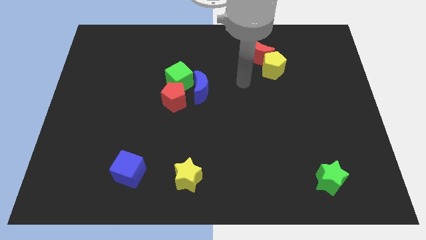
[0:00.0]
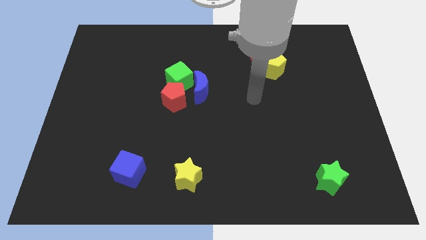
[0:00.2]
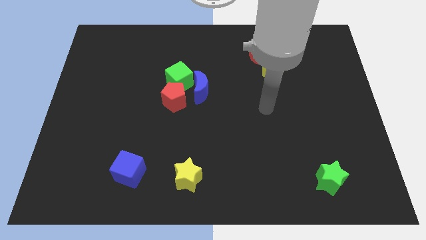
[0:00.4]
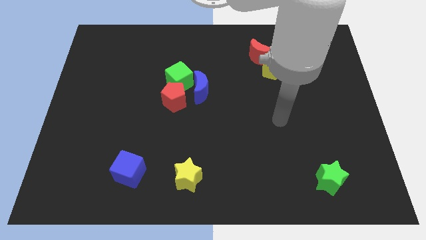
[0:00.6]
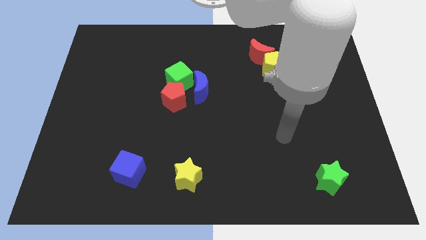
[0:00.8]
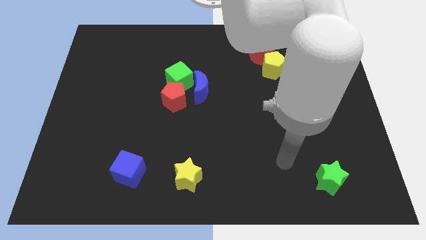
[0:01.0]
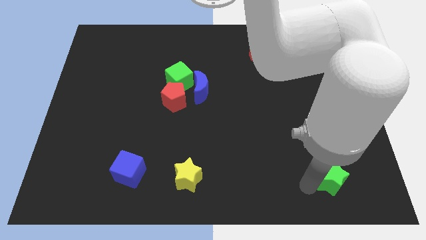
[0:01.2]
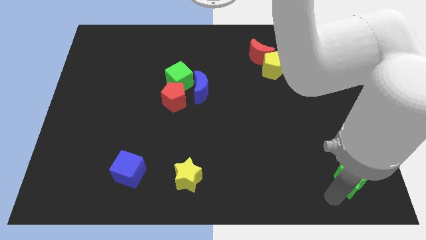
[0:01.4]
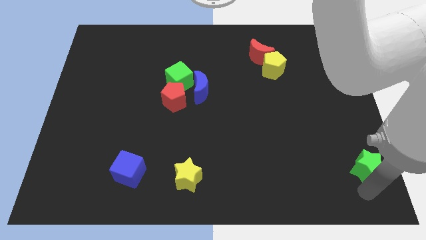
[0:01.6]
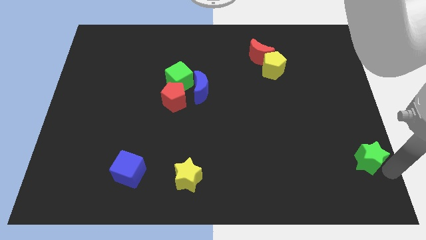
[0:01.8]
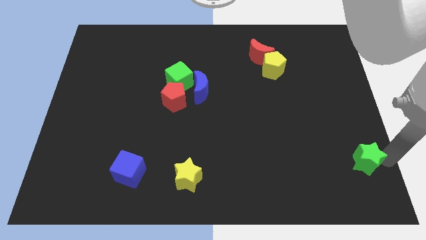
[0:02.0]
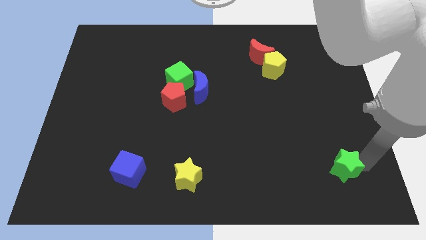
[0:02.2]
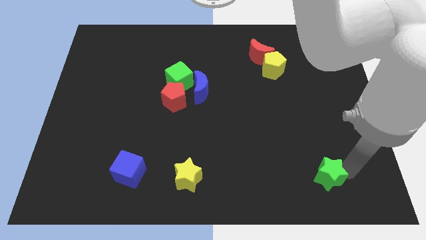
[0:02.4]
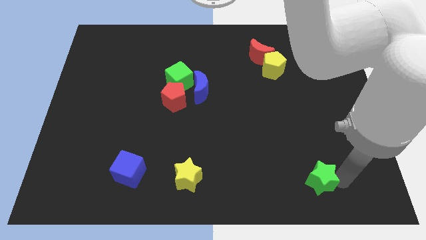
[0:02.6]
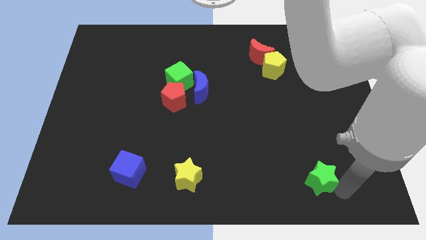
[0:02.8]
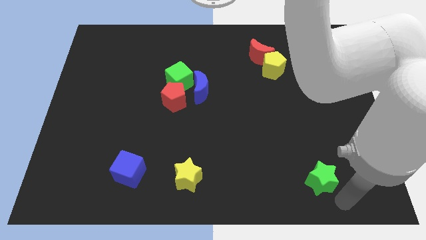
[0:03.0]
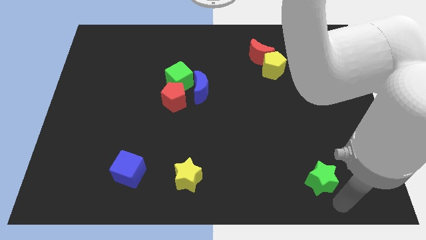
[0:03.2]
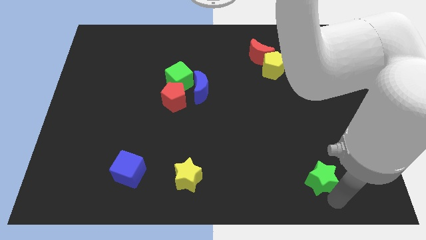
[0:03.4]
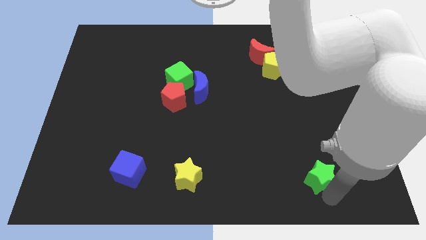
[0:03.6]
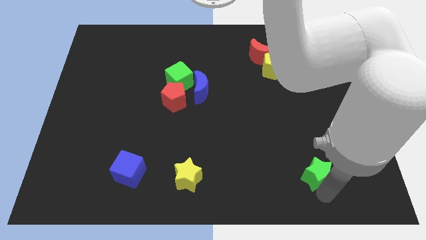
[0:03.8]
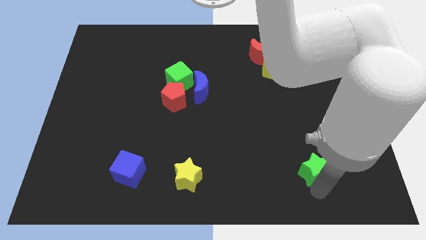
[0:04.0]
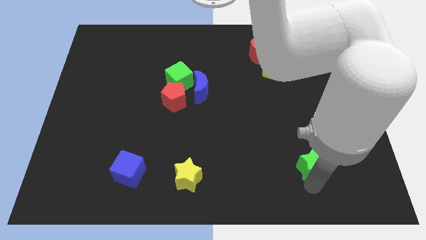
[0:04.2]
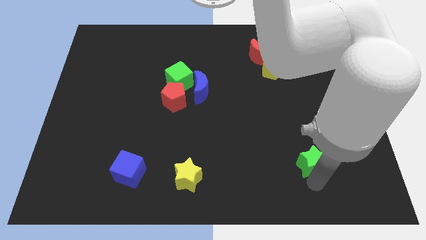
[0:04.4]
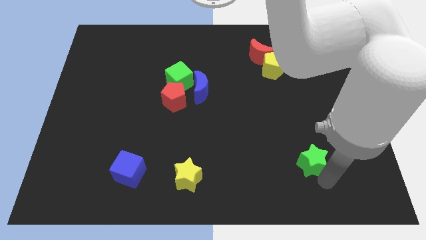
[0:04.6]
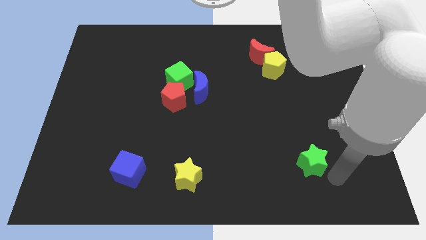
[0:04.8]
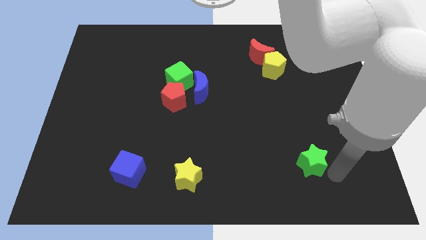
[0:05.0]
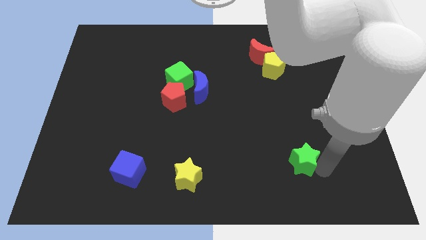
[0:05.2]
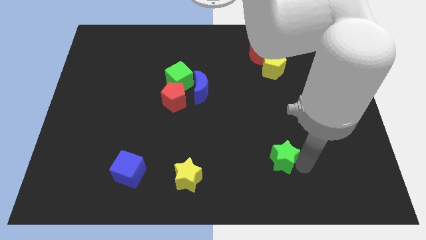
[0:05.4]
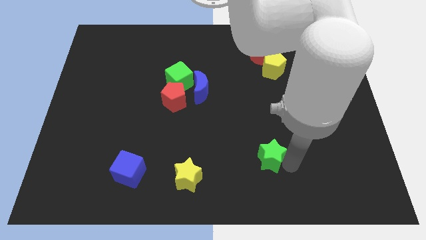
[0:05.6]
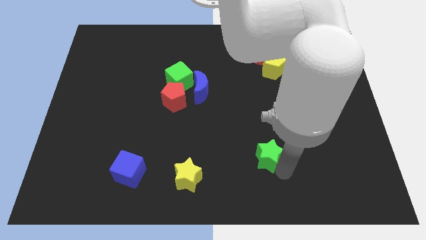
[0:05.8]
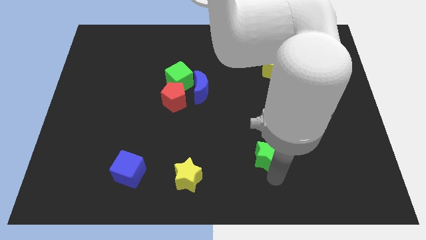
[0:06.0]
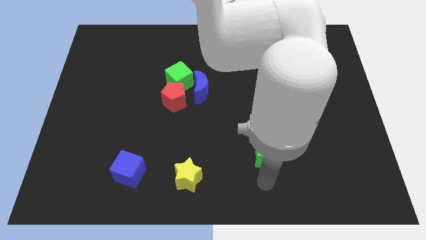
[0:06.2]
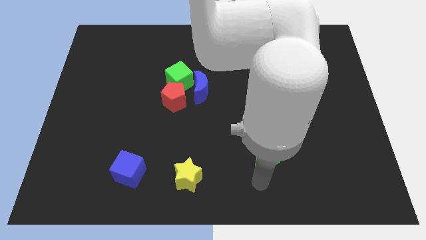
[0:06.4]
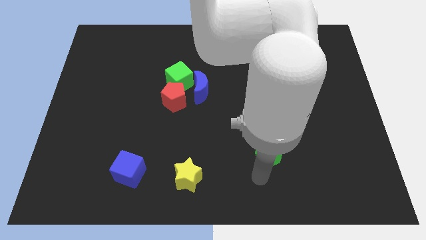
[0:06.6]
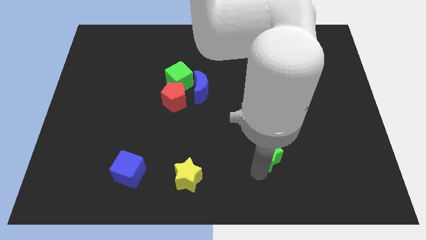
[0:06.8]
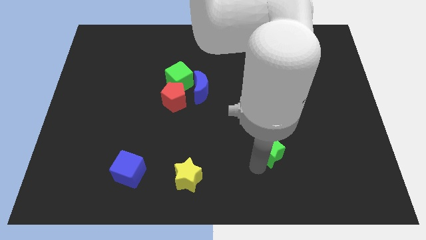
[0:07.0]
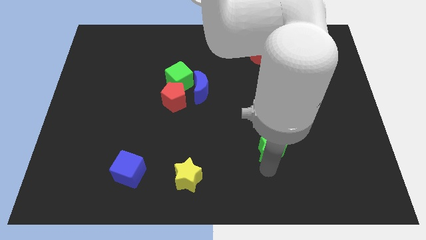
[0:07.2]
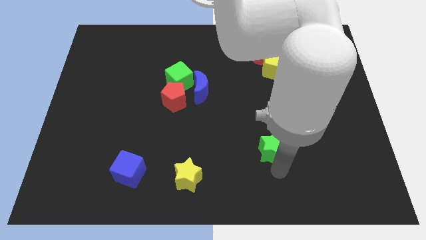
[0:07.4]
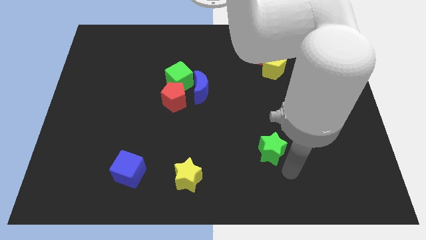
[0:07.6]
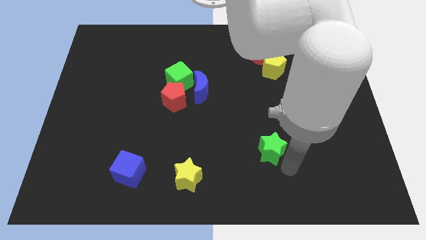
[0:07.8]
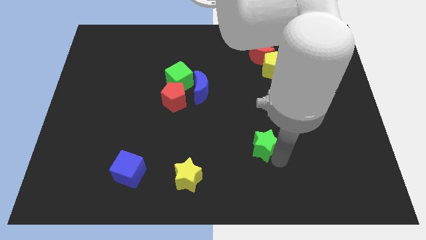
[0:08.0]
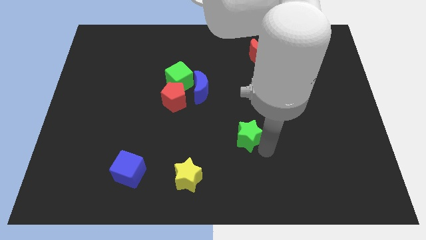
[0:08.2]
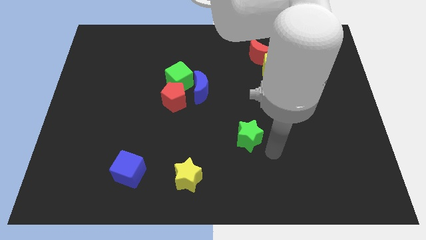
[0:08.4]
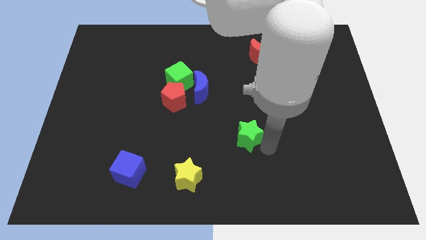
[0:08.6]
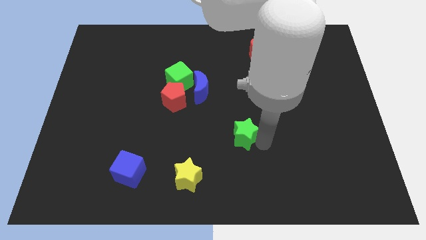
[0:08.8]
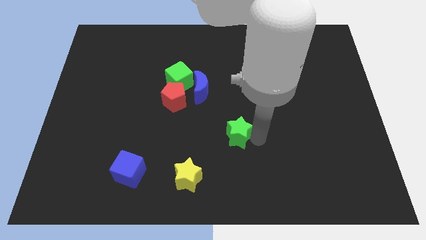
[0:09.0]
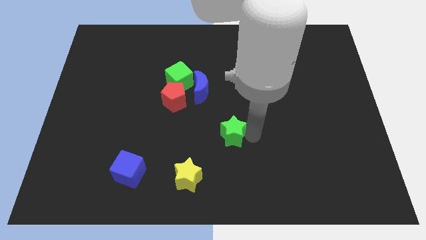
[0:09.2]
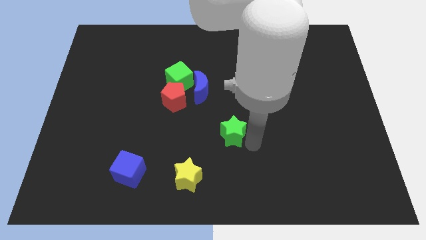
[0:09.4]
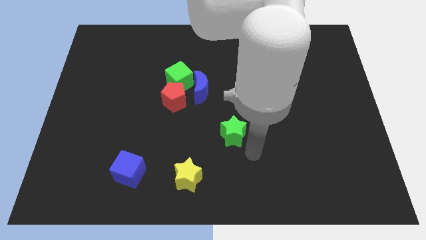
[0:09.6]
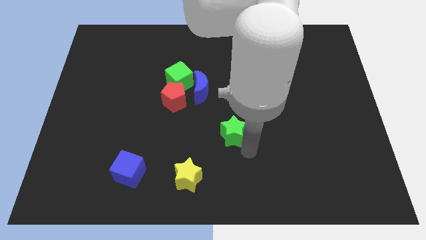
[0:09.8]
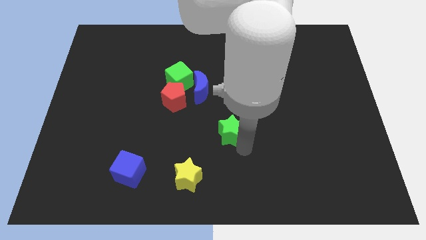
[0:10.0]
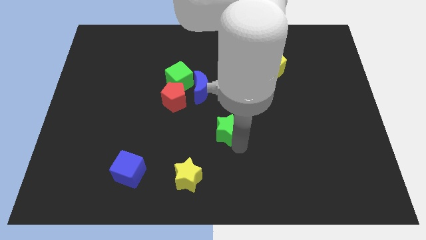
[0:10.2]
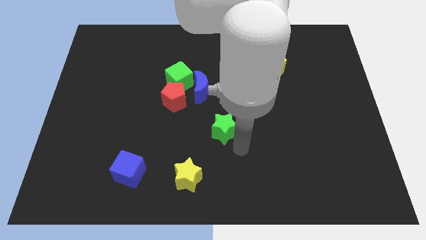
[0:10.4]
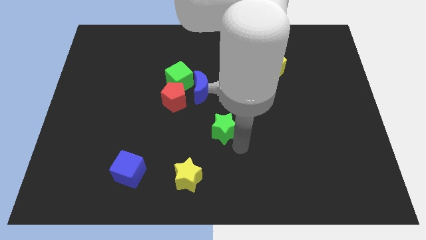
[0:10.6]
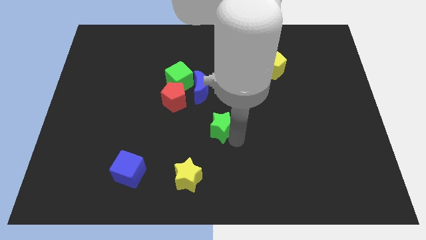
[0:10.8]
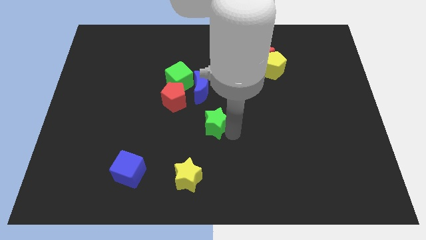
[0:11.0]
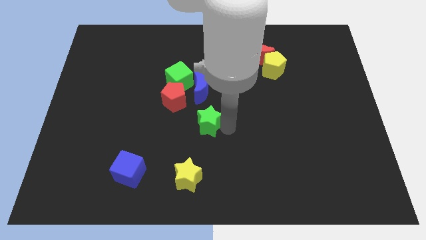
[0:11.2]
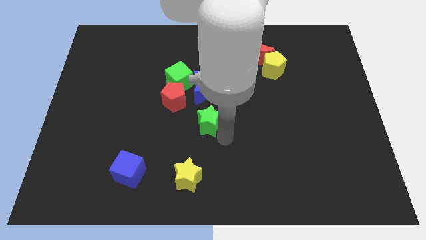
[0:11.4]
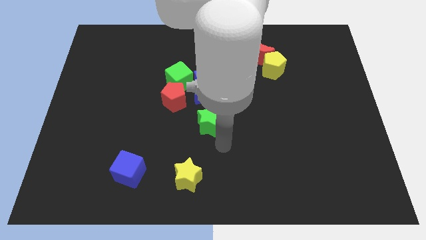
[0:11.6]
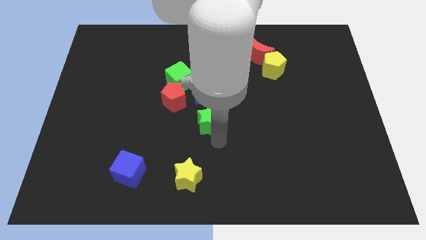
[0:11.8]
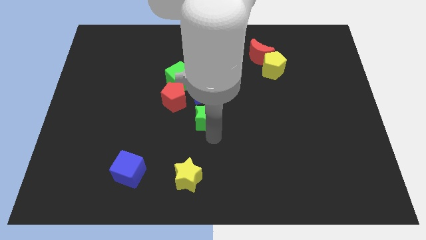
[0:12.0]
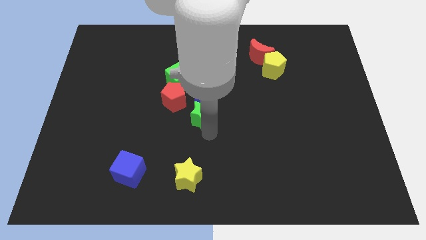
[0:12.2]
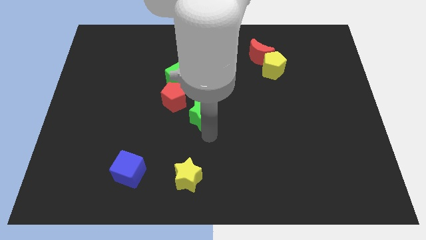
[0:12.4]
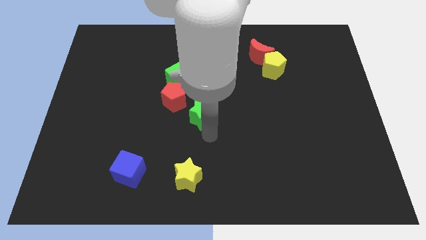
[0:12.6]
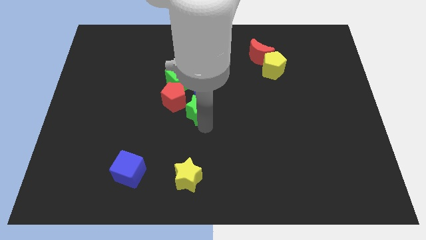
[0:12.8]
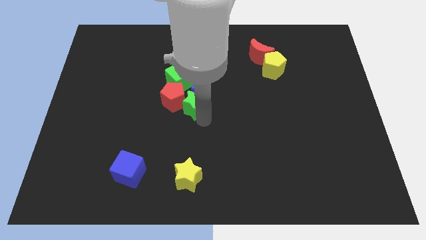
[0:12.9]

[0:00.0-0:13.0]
slide the green star to the red pentagon
